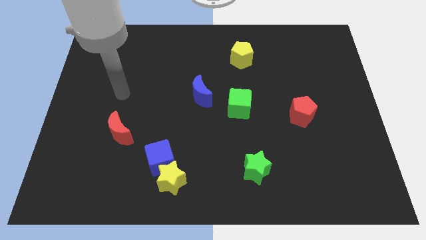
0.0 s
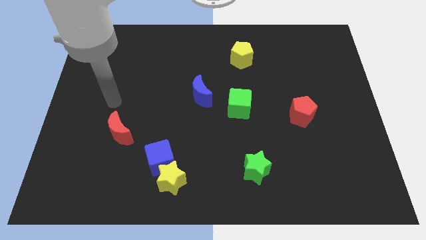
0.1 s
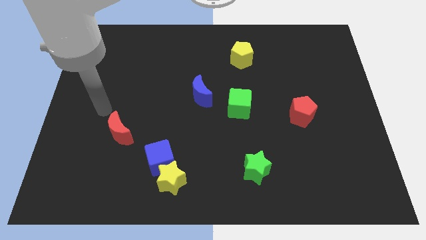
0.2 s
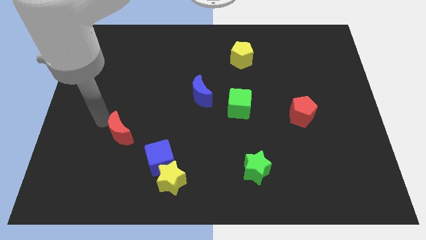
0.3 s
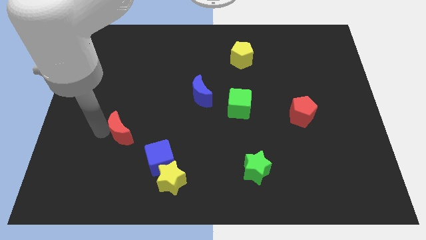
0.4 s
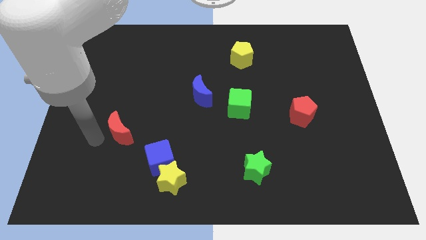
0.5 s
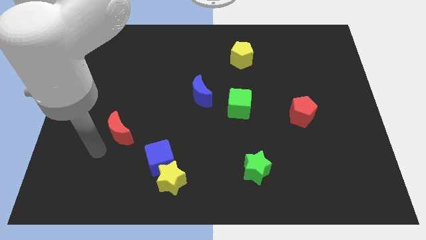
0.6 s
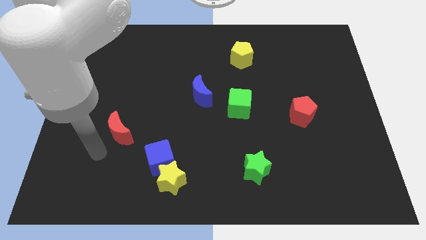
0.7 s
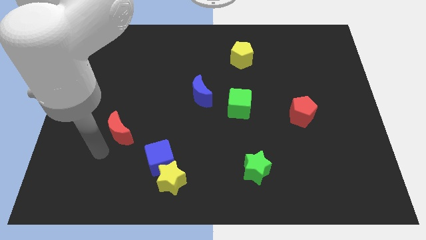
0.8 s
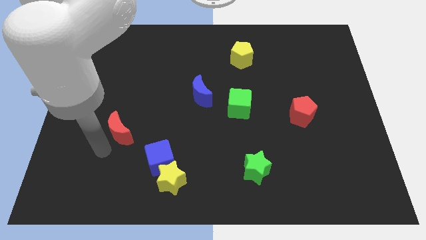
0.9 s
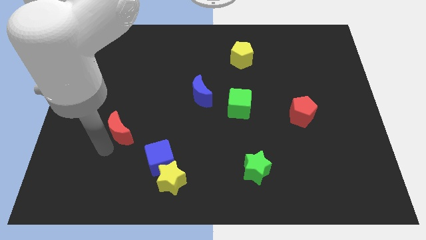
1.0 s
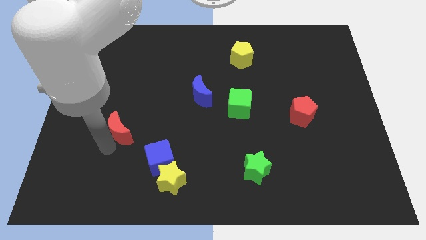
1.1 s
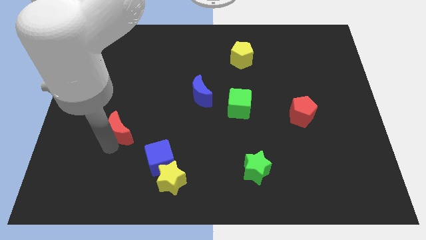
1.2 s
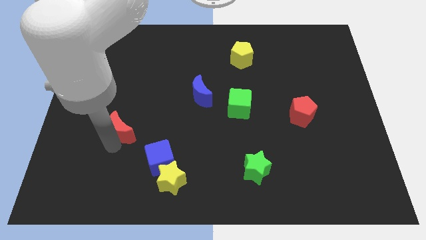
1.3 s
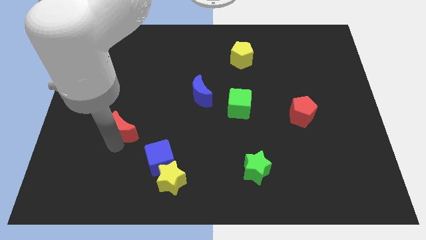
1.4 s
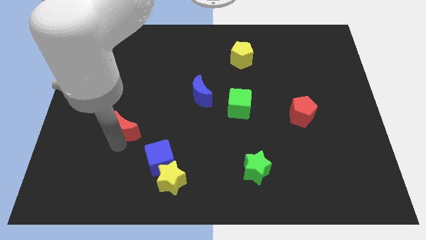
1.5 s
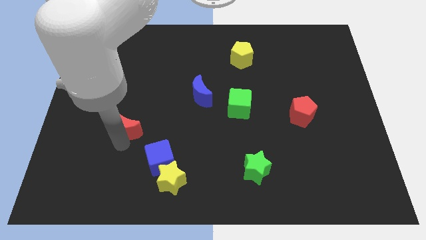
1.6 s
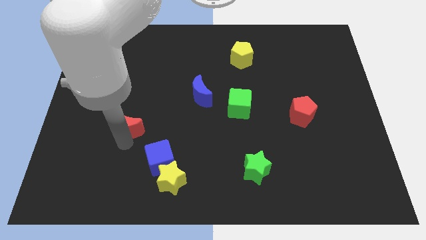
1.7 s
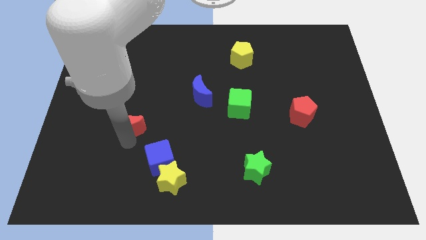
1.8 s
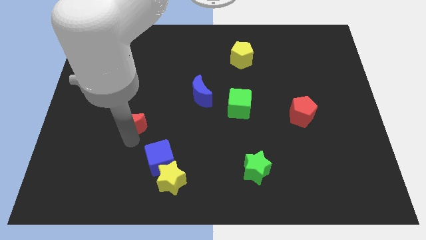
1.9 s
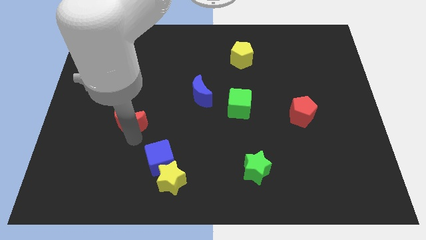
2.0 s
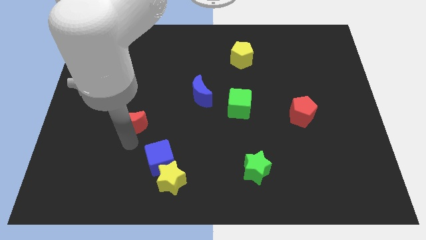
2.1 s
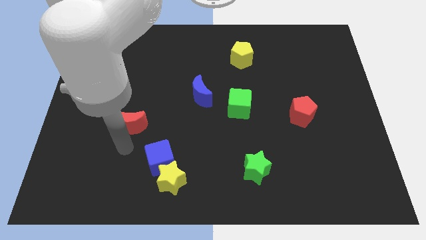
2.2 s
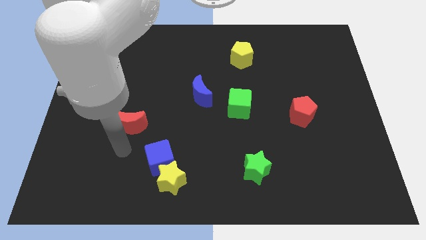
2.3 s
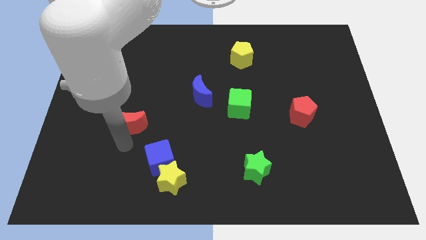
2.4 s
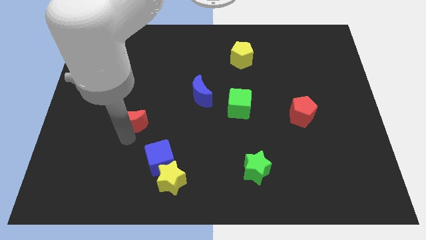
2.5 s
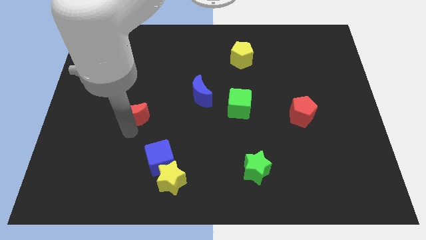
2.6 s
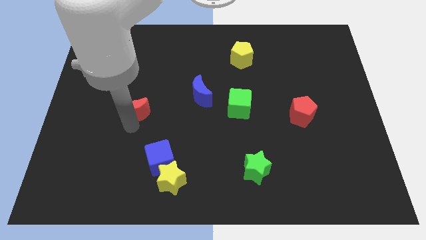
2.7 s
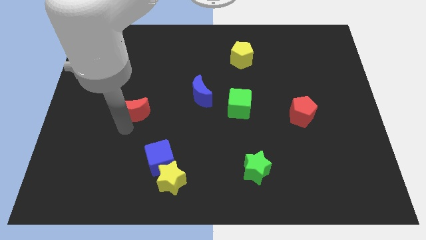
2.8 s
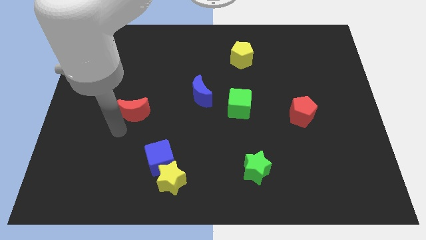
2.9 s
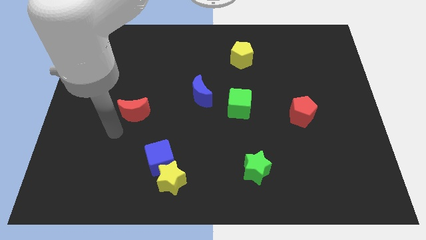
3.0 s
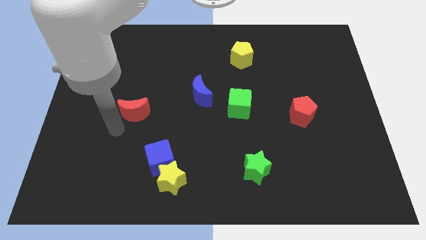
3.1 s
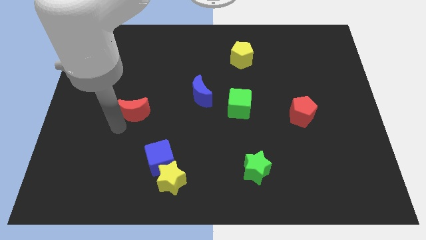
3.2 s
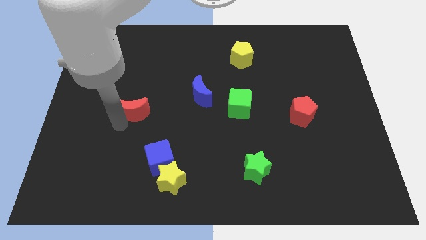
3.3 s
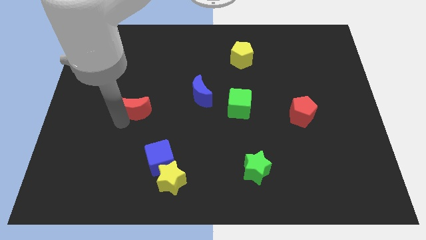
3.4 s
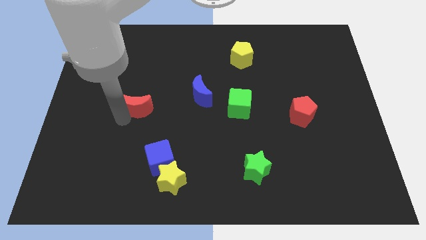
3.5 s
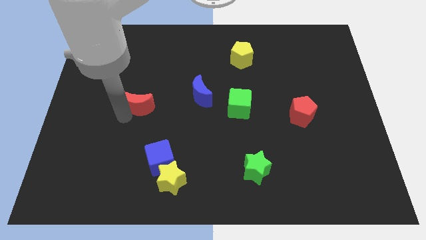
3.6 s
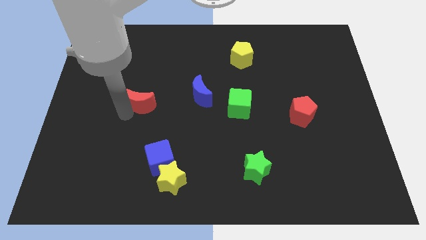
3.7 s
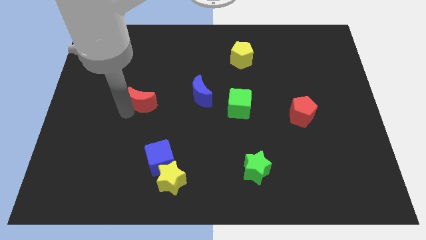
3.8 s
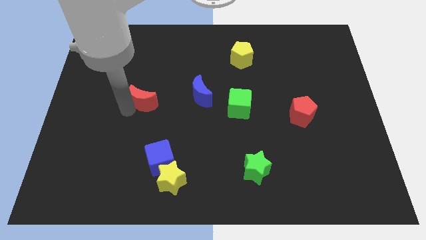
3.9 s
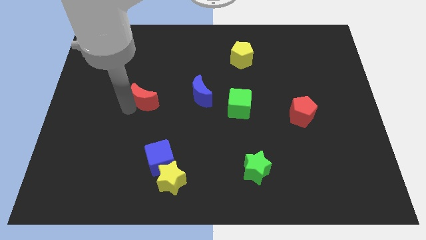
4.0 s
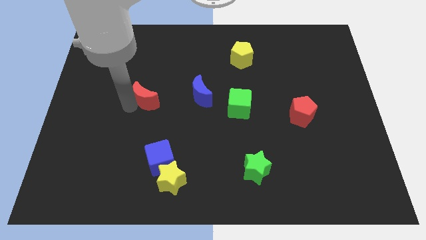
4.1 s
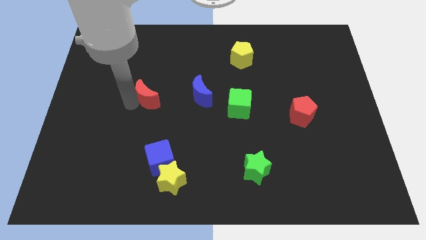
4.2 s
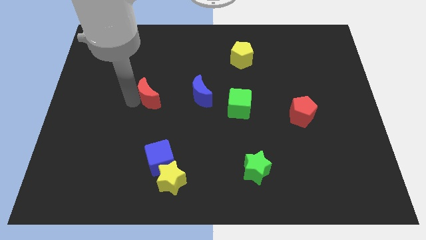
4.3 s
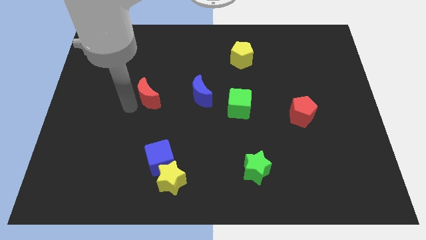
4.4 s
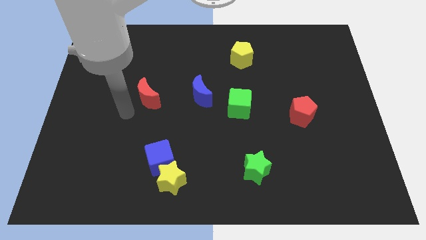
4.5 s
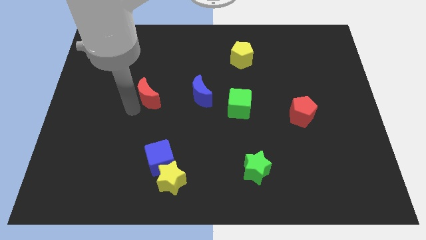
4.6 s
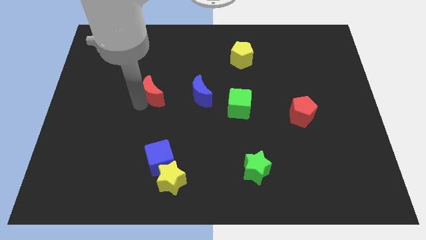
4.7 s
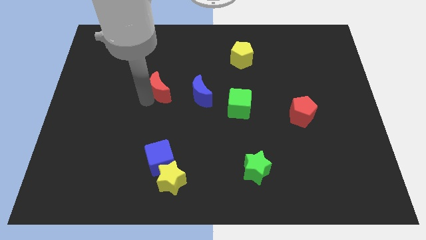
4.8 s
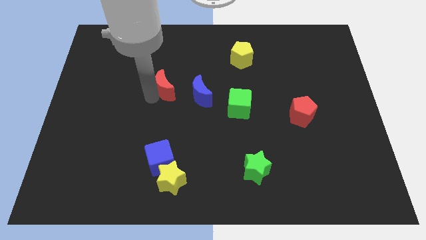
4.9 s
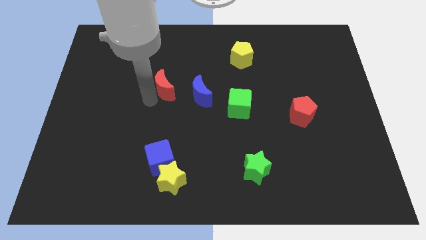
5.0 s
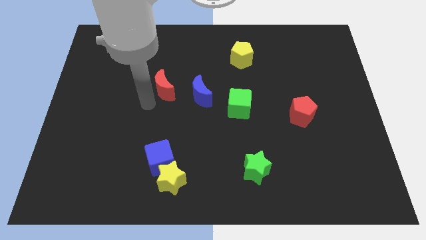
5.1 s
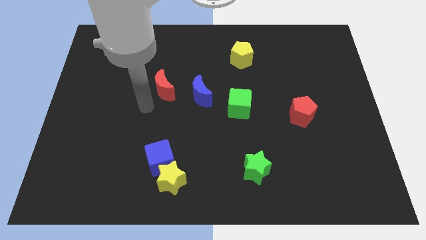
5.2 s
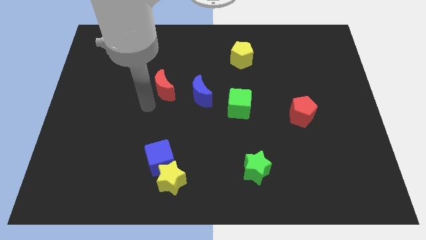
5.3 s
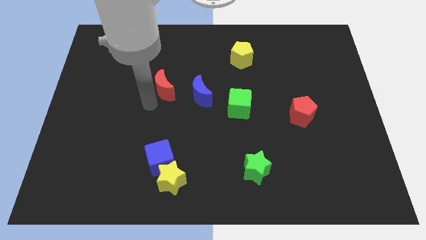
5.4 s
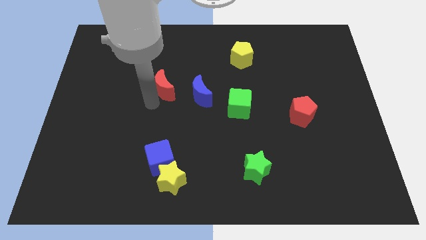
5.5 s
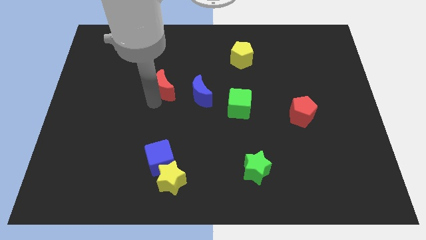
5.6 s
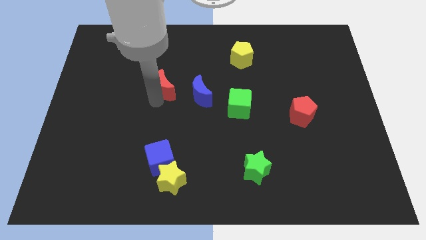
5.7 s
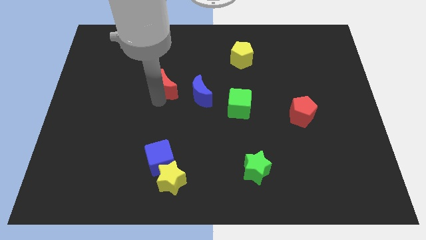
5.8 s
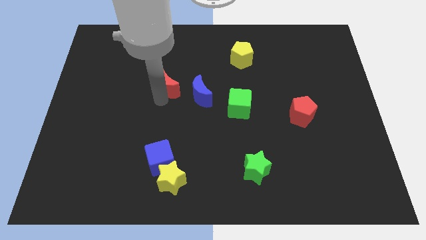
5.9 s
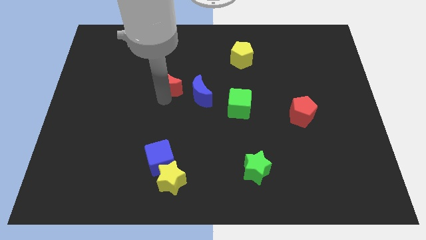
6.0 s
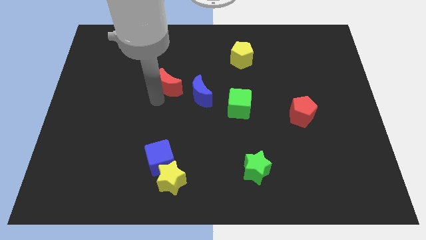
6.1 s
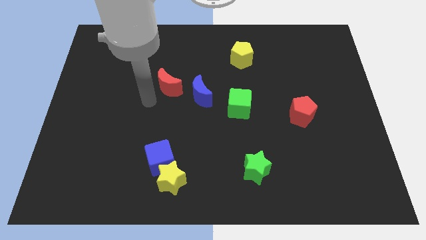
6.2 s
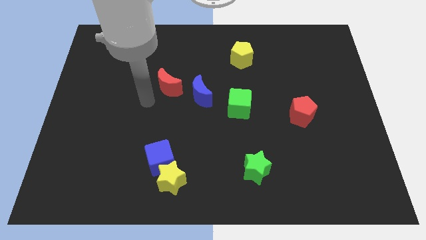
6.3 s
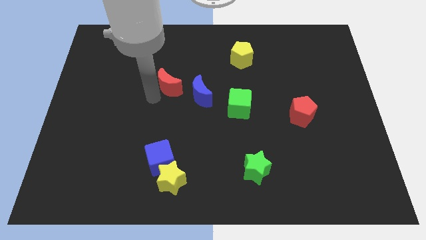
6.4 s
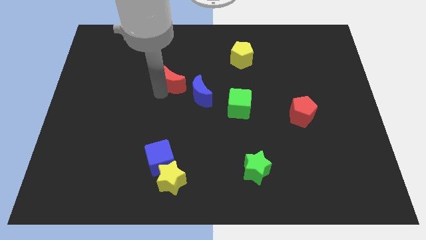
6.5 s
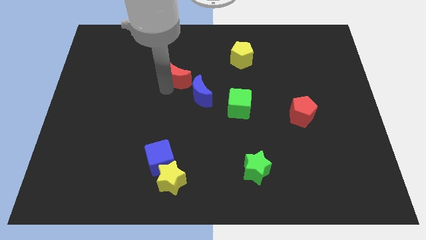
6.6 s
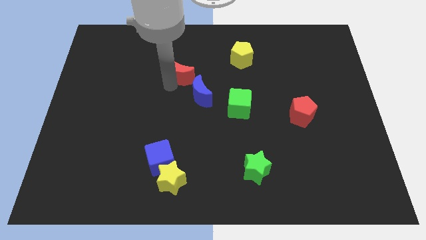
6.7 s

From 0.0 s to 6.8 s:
move the red moon diagonally upwards and to the right

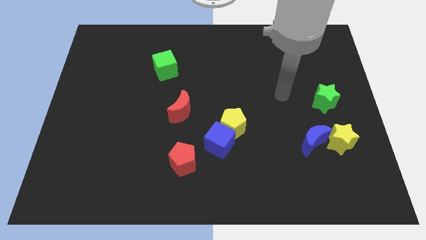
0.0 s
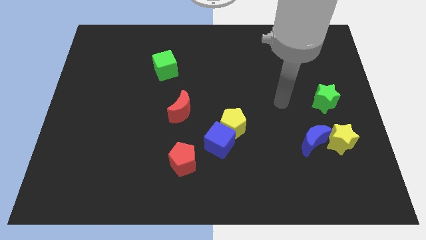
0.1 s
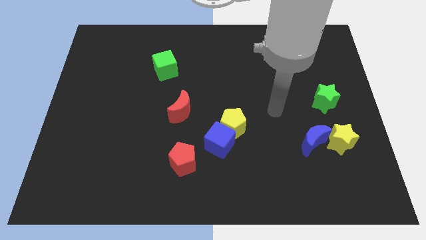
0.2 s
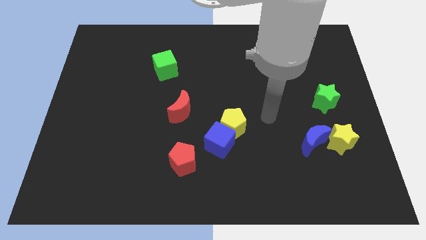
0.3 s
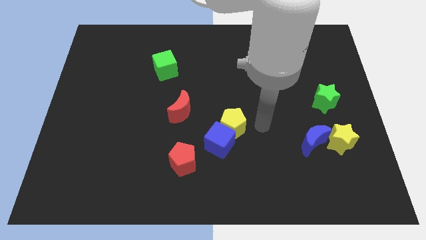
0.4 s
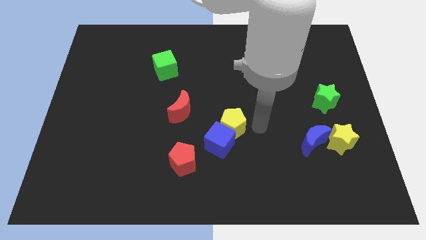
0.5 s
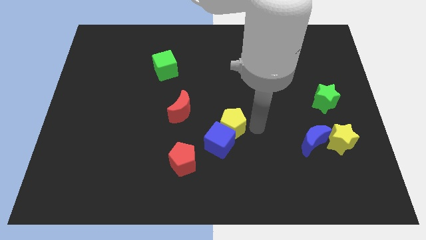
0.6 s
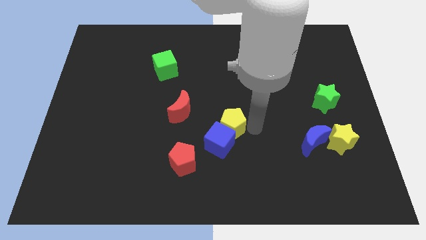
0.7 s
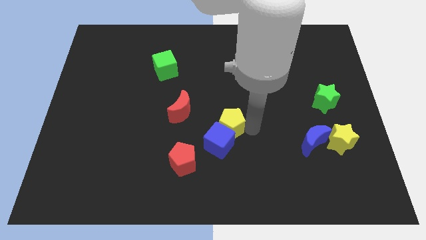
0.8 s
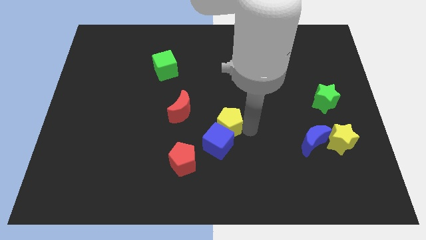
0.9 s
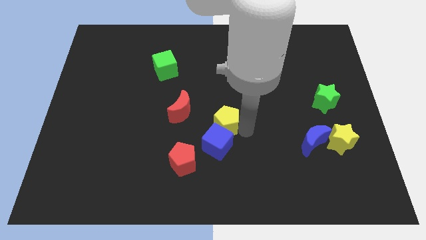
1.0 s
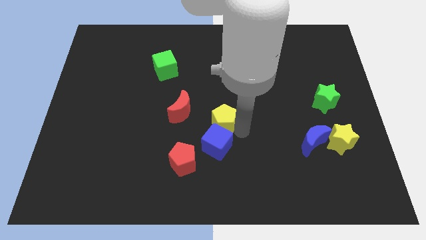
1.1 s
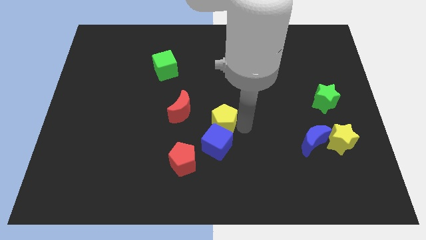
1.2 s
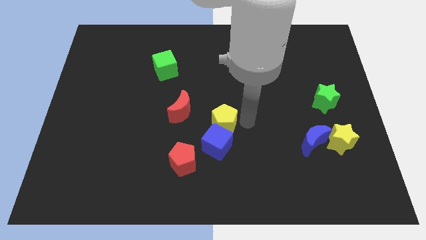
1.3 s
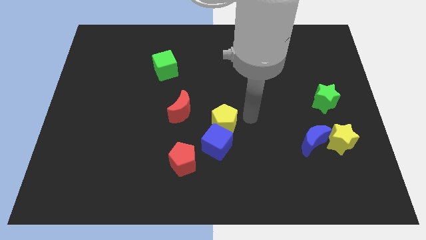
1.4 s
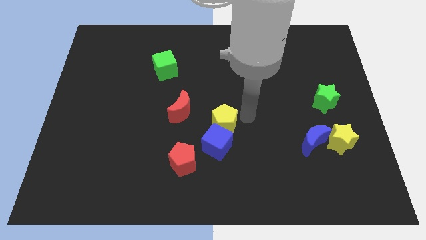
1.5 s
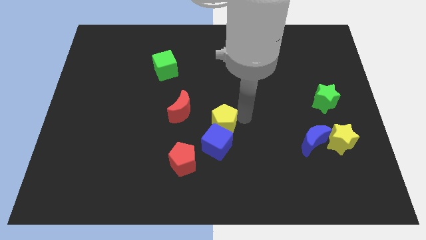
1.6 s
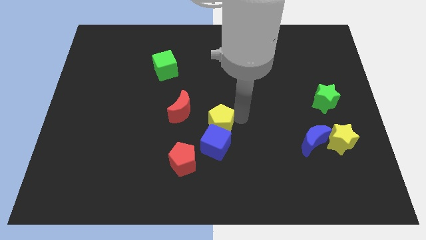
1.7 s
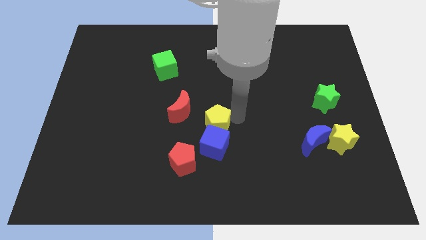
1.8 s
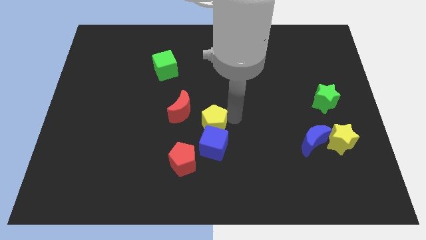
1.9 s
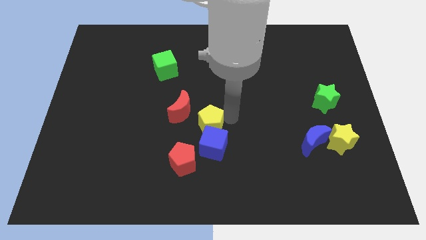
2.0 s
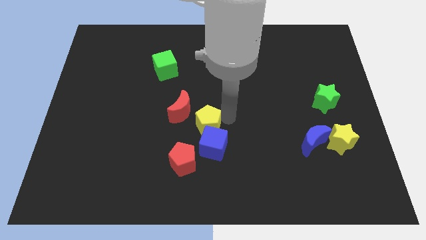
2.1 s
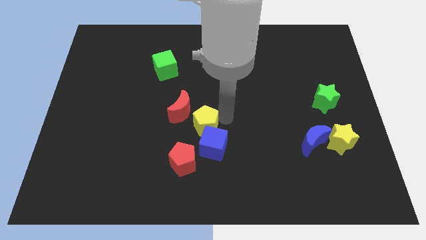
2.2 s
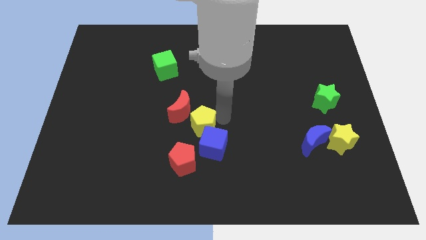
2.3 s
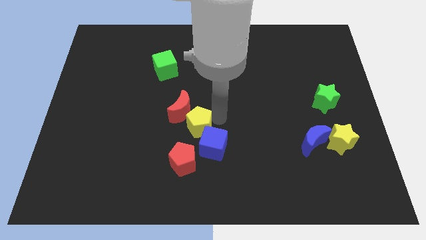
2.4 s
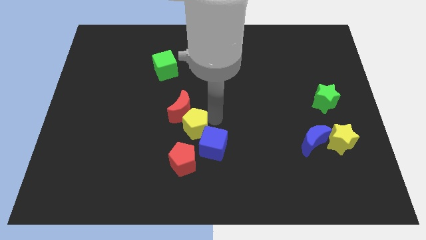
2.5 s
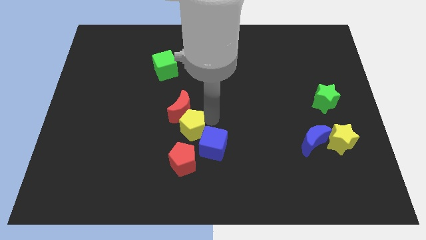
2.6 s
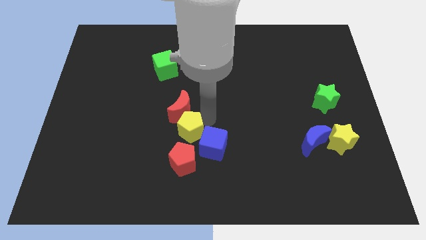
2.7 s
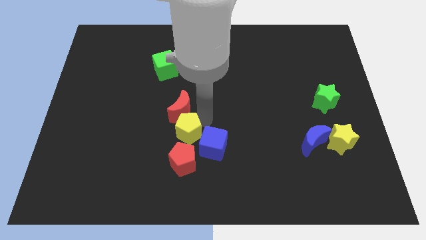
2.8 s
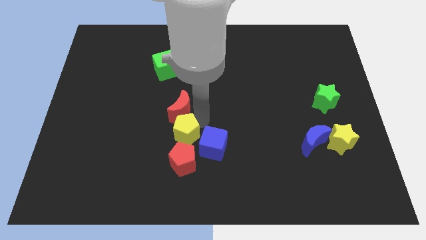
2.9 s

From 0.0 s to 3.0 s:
push the yellow pentagon slightly down and to the left diagonally
